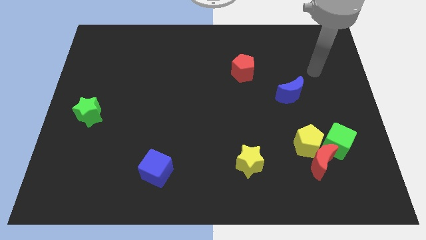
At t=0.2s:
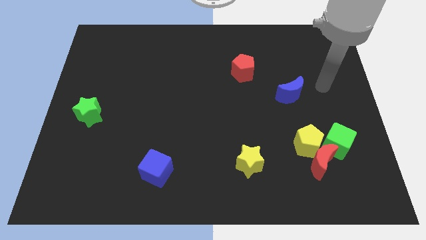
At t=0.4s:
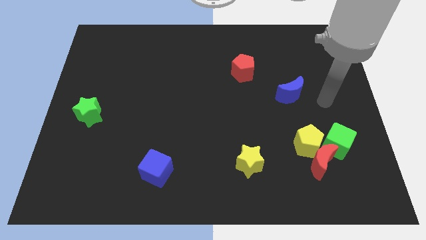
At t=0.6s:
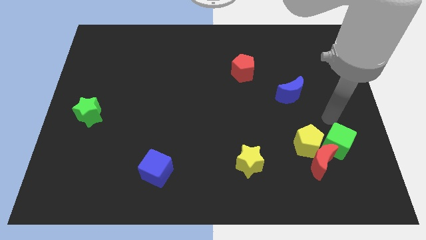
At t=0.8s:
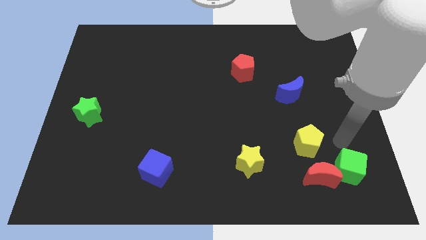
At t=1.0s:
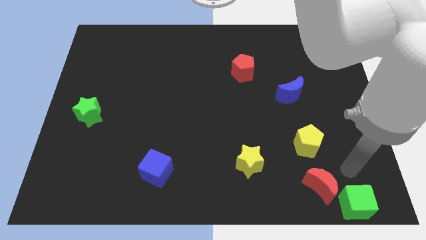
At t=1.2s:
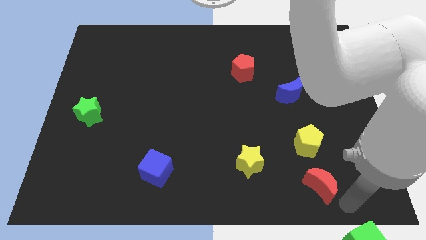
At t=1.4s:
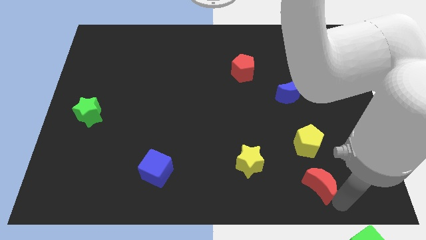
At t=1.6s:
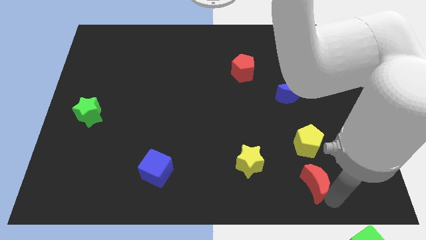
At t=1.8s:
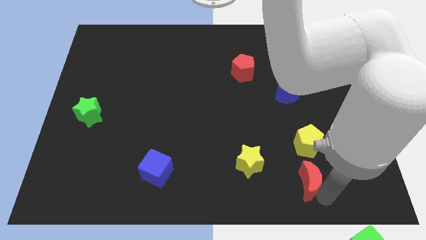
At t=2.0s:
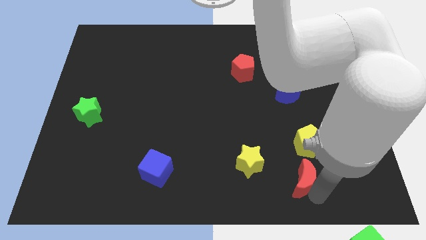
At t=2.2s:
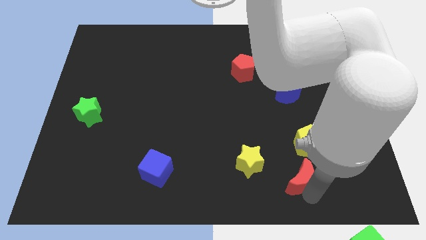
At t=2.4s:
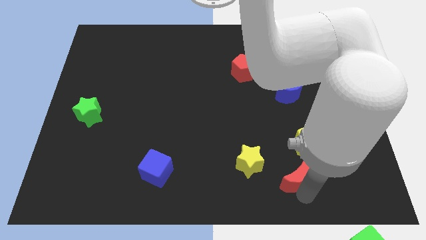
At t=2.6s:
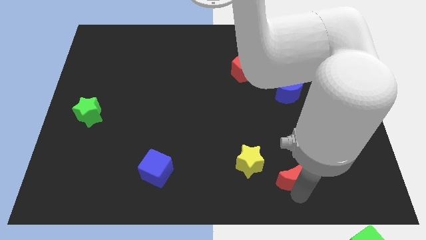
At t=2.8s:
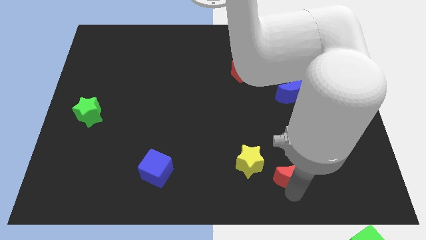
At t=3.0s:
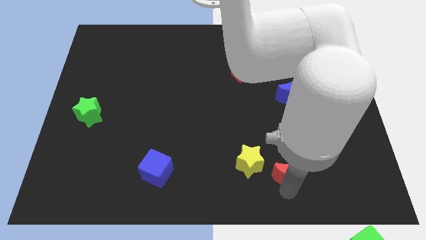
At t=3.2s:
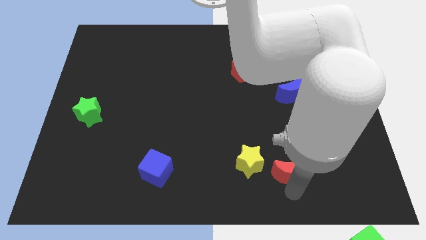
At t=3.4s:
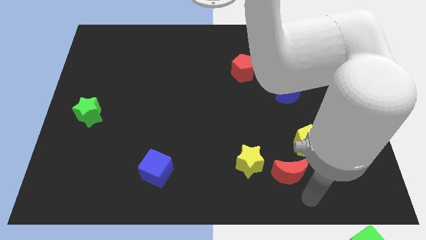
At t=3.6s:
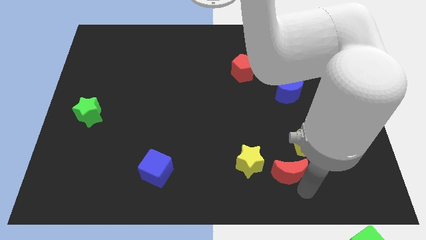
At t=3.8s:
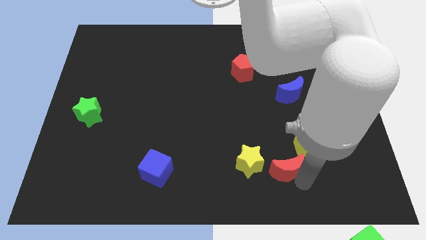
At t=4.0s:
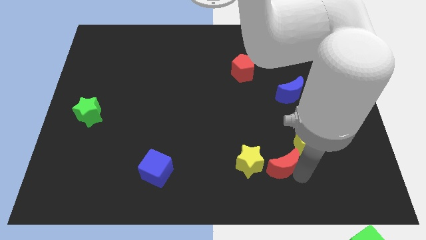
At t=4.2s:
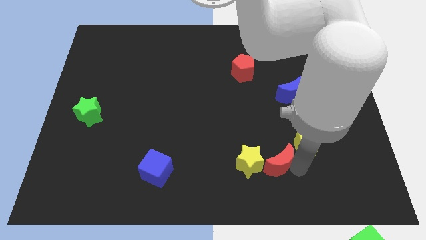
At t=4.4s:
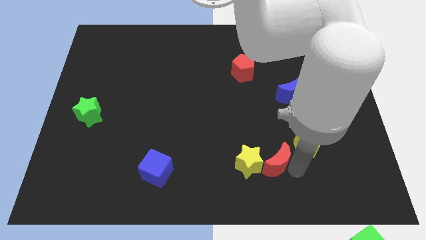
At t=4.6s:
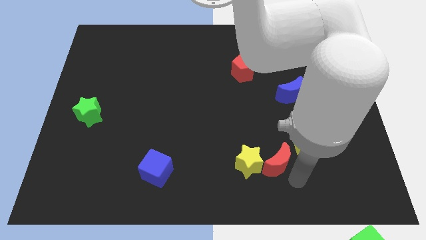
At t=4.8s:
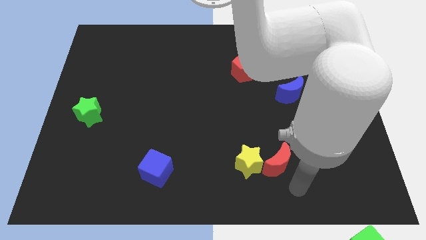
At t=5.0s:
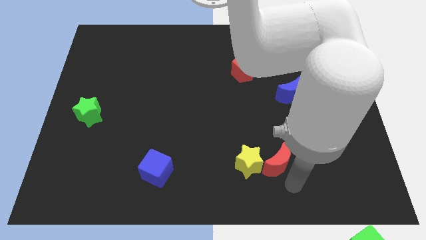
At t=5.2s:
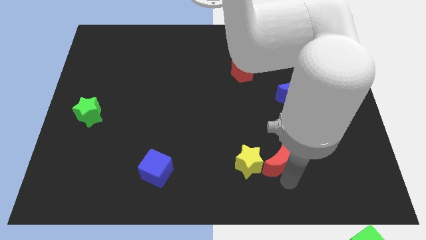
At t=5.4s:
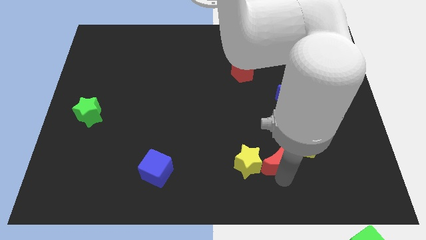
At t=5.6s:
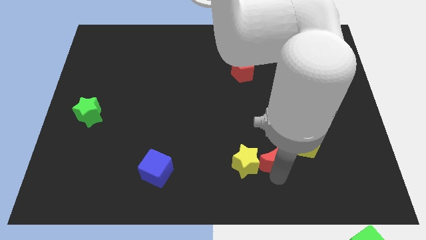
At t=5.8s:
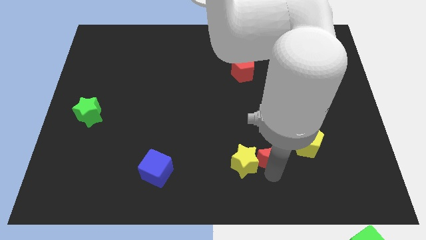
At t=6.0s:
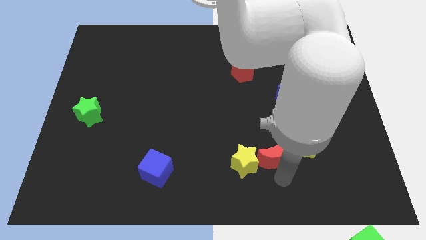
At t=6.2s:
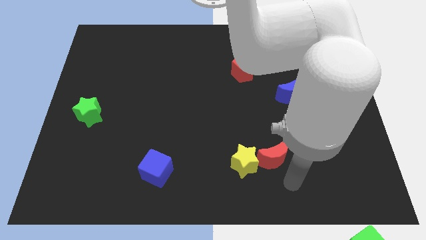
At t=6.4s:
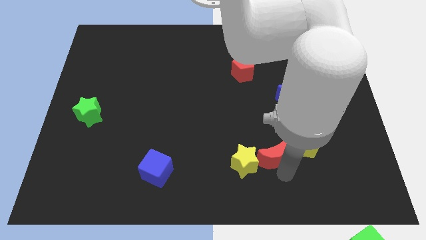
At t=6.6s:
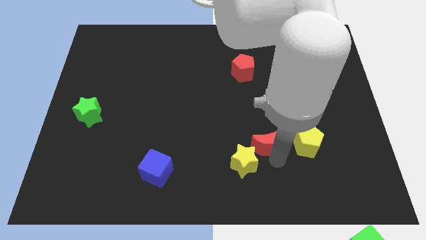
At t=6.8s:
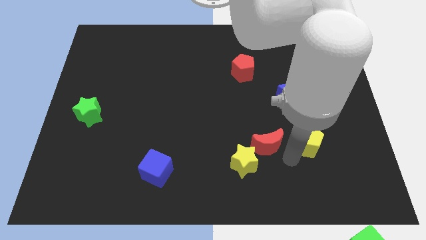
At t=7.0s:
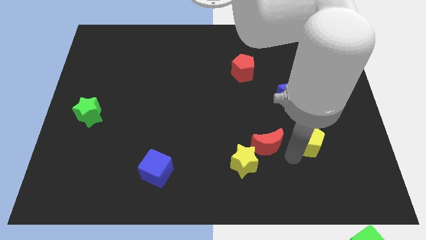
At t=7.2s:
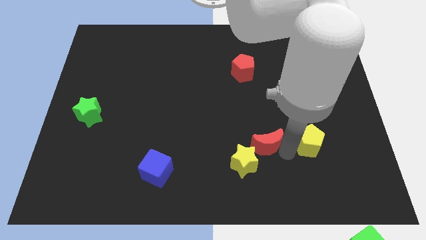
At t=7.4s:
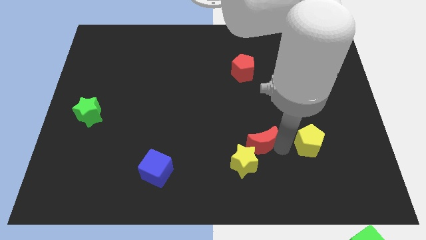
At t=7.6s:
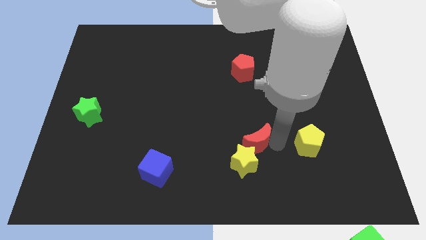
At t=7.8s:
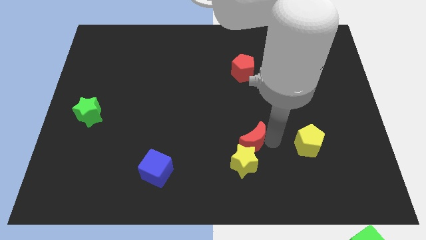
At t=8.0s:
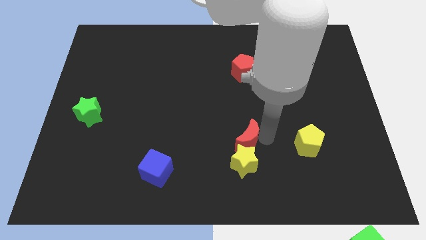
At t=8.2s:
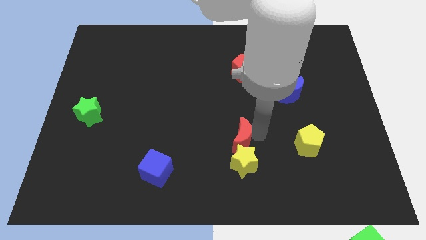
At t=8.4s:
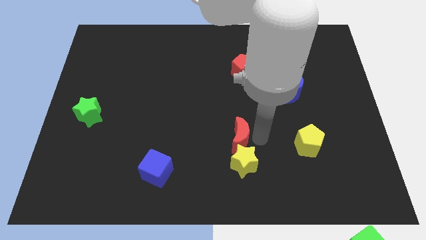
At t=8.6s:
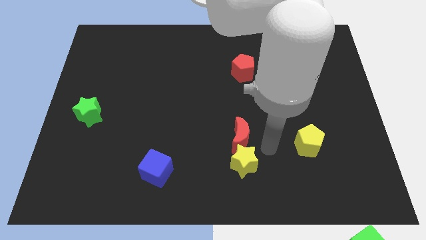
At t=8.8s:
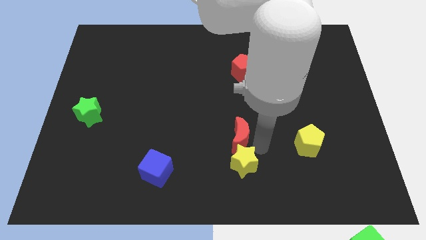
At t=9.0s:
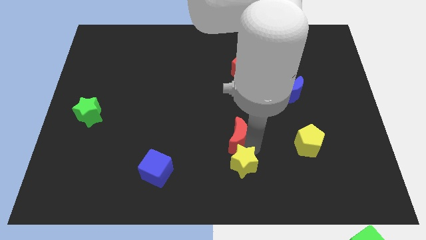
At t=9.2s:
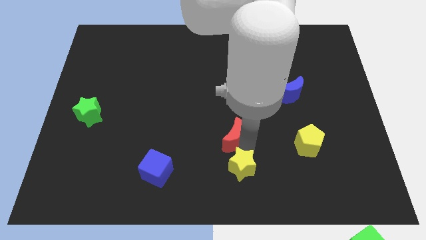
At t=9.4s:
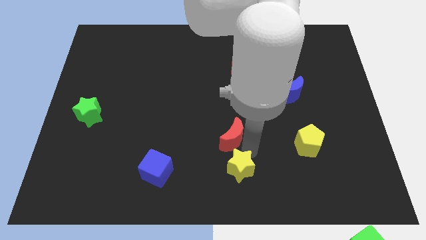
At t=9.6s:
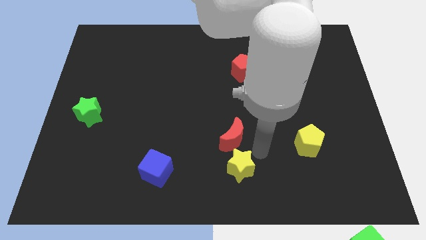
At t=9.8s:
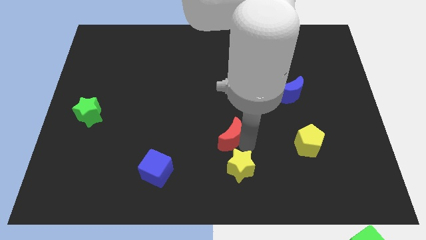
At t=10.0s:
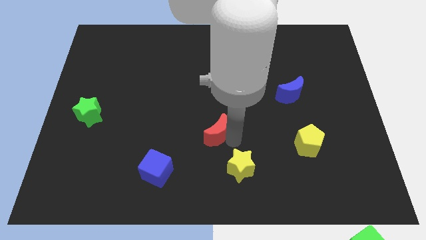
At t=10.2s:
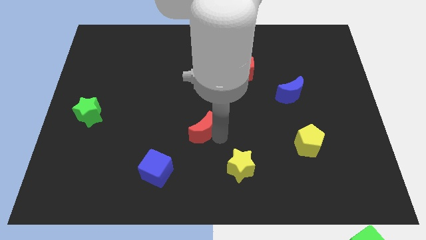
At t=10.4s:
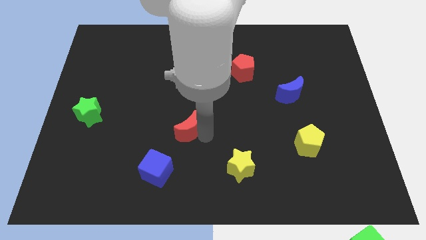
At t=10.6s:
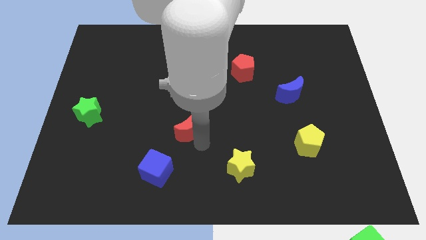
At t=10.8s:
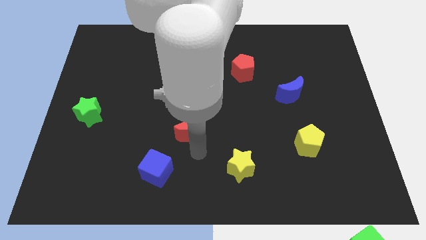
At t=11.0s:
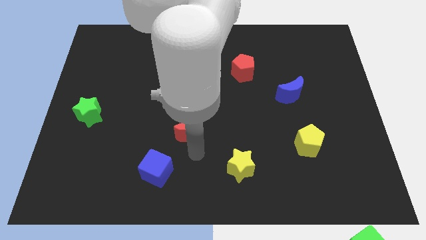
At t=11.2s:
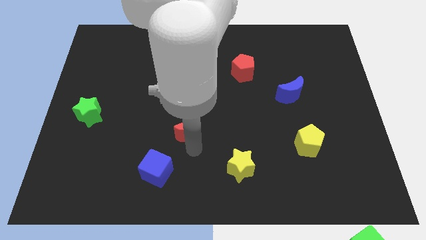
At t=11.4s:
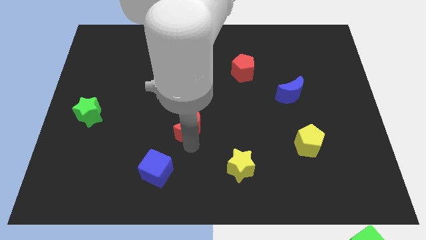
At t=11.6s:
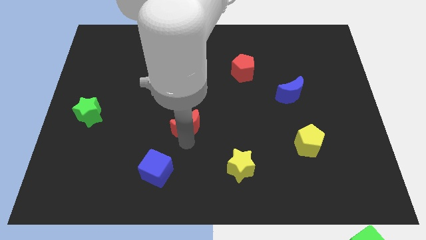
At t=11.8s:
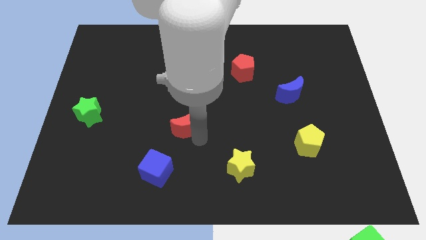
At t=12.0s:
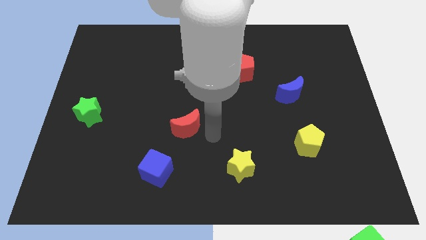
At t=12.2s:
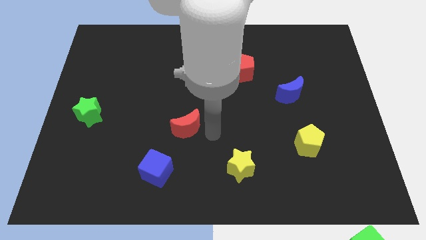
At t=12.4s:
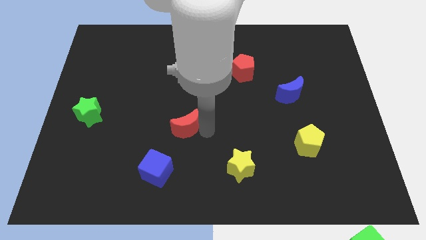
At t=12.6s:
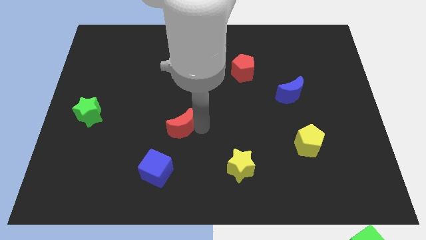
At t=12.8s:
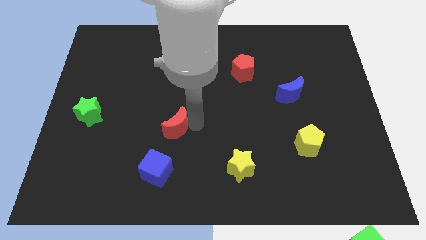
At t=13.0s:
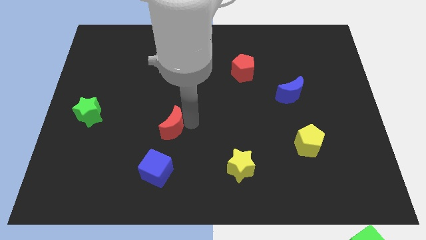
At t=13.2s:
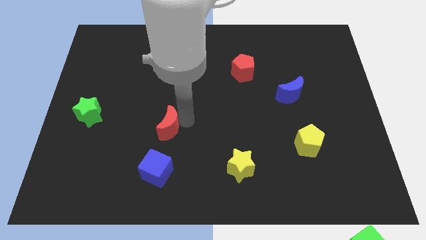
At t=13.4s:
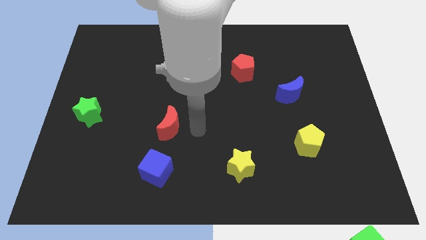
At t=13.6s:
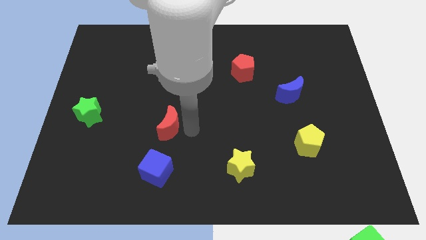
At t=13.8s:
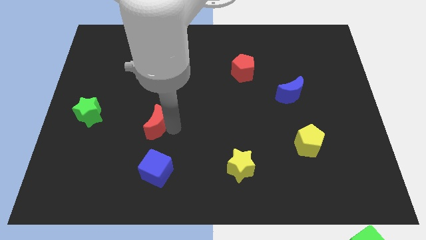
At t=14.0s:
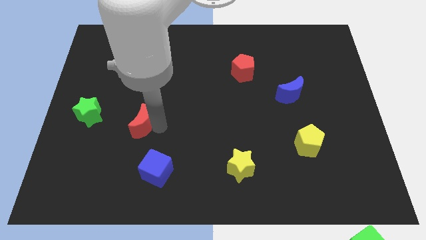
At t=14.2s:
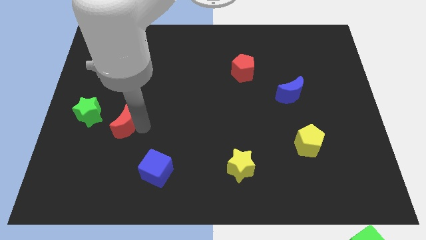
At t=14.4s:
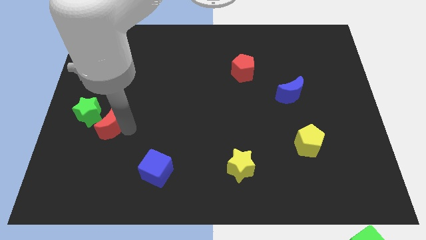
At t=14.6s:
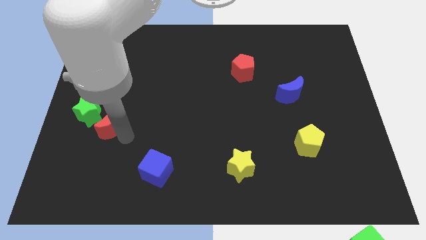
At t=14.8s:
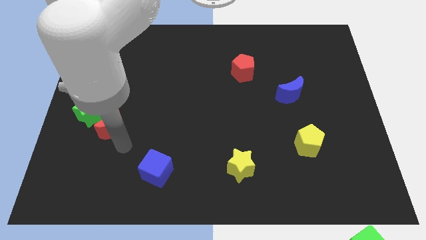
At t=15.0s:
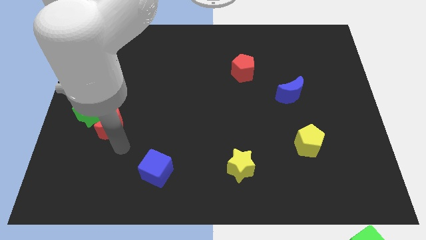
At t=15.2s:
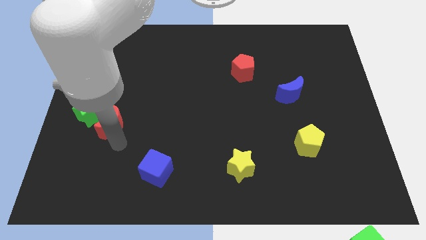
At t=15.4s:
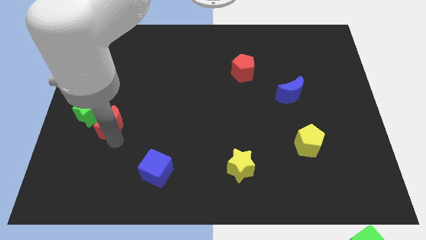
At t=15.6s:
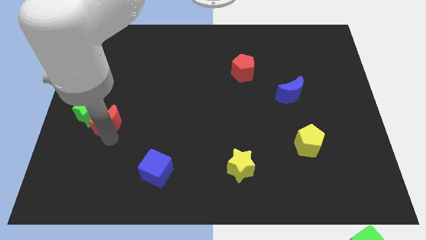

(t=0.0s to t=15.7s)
slide the red moon next to the green star
